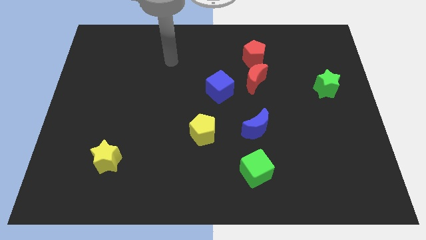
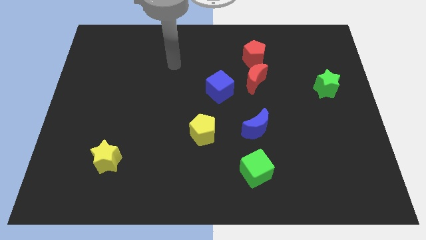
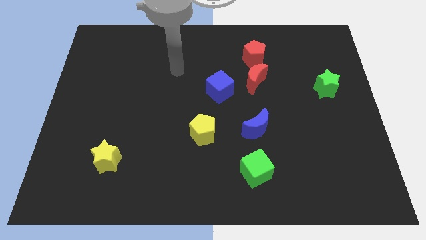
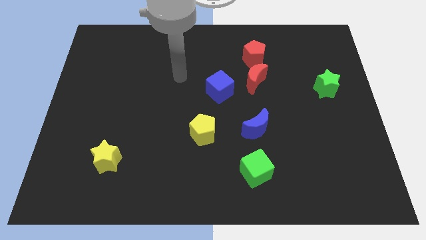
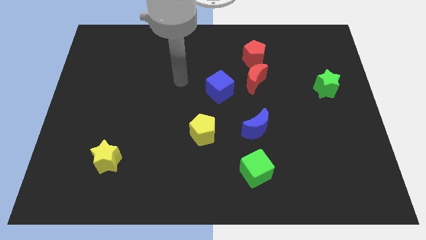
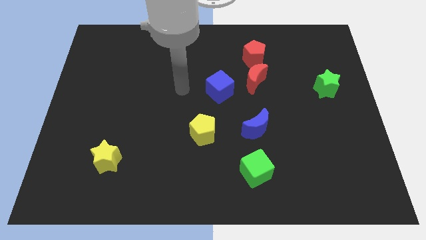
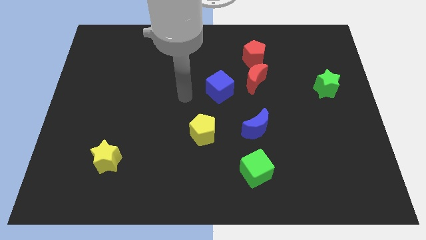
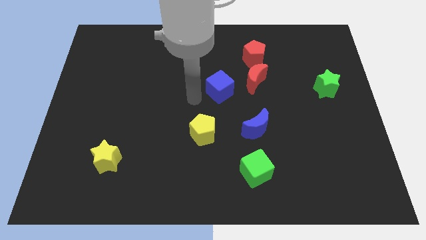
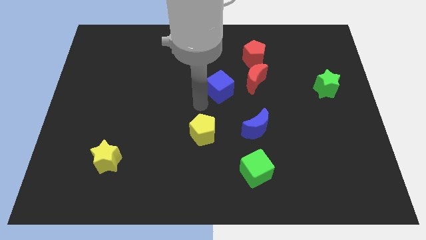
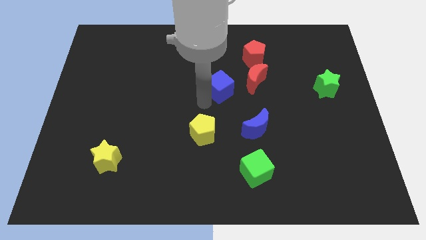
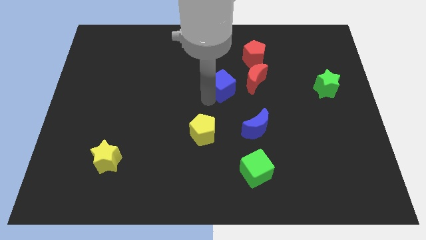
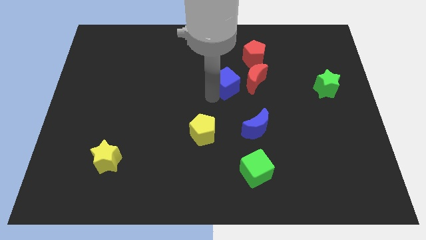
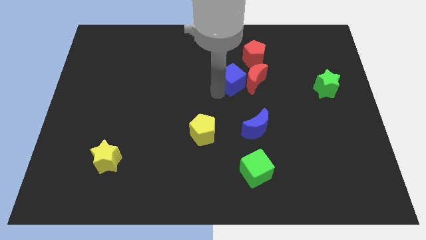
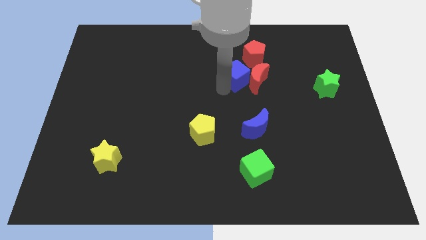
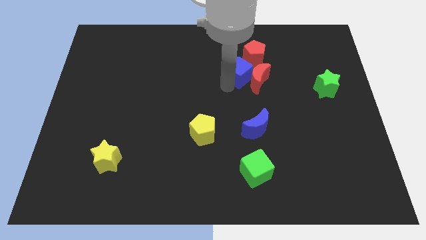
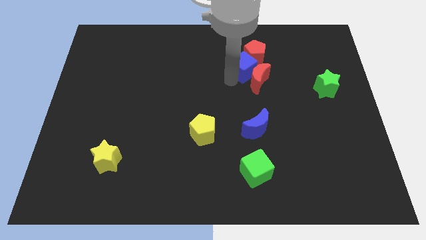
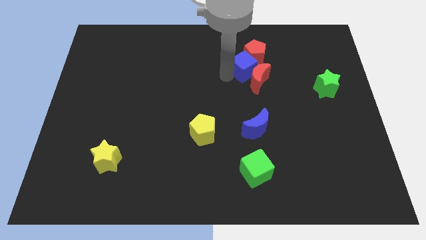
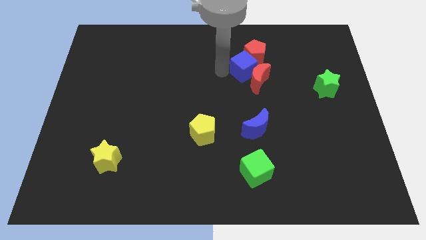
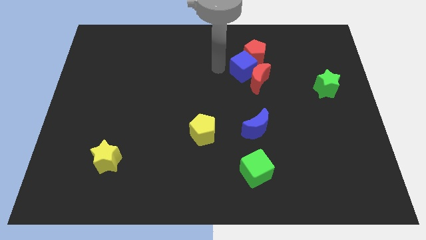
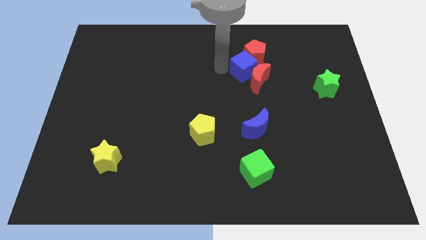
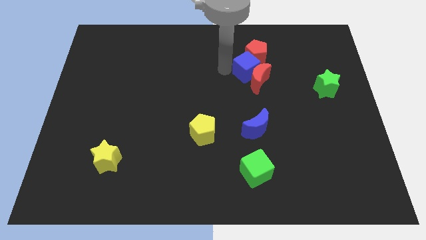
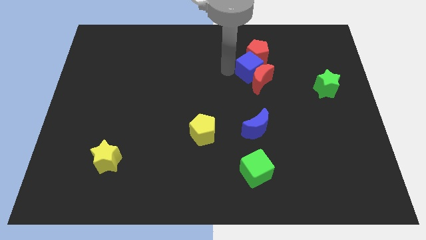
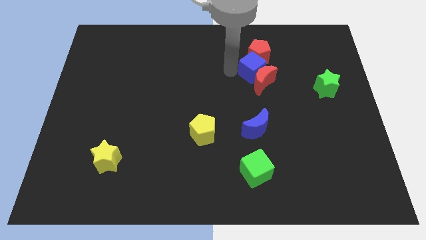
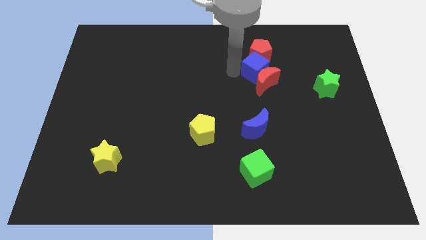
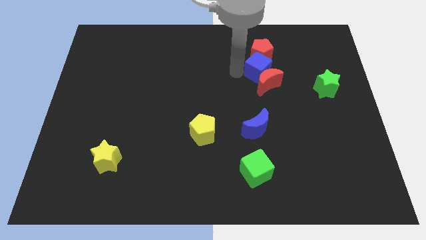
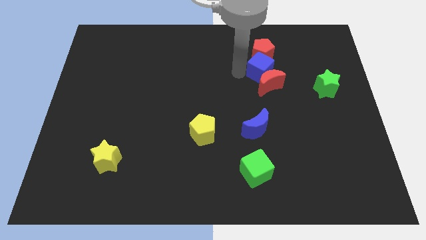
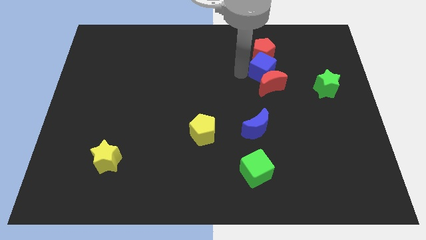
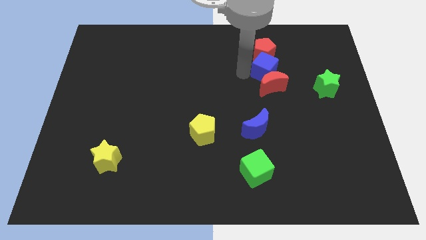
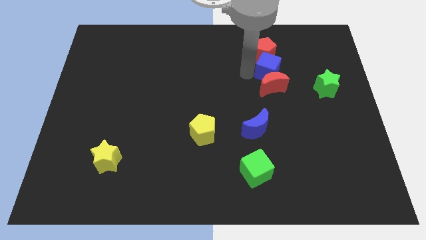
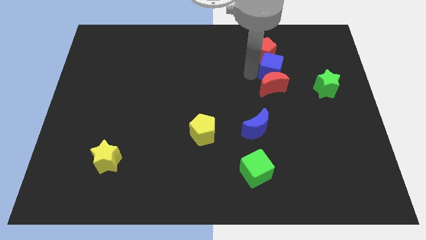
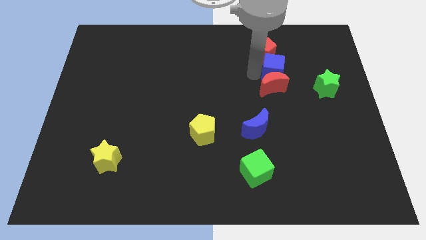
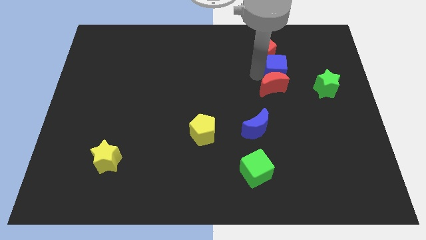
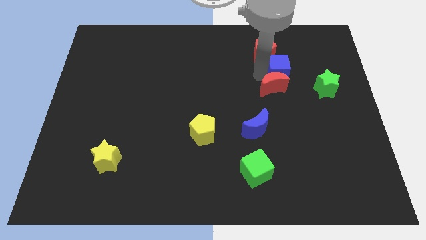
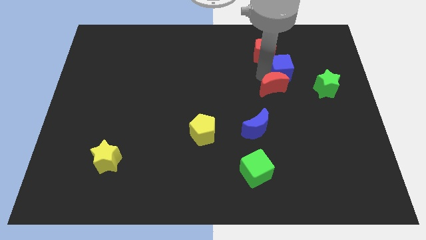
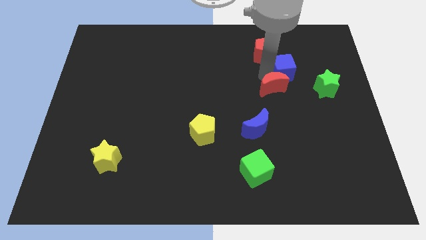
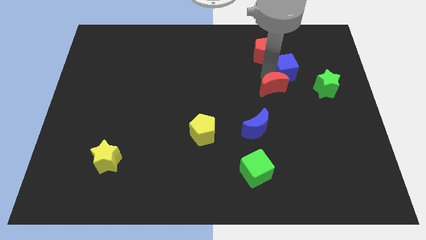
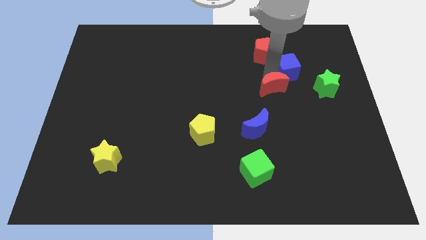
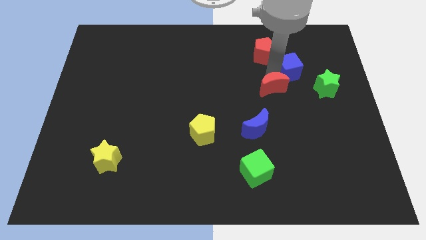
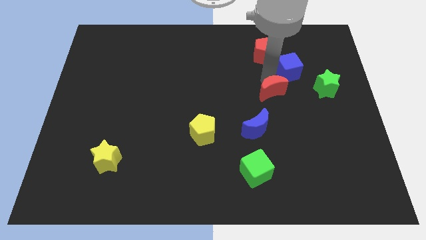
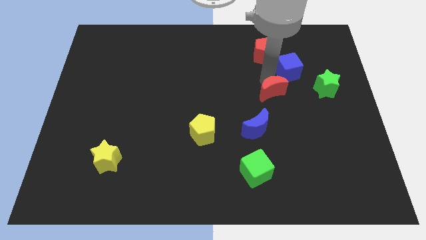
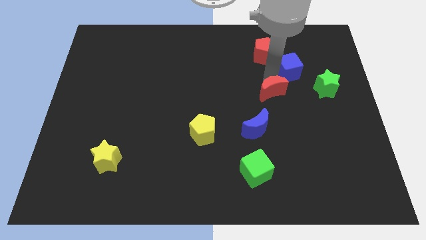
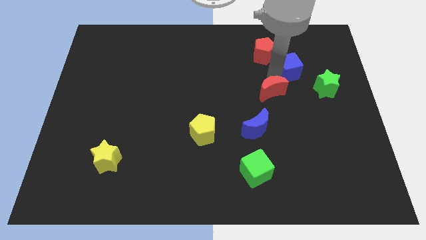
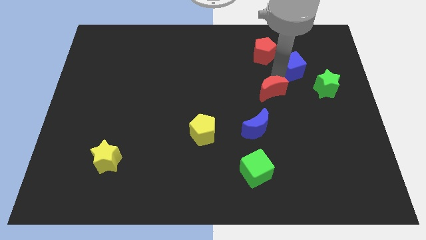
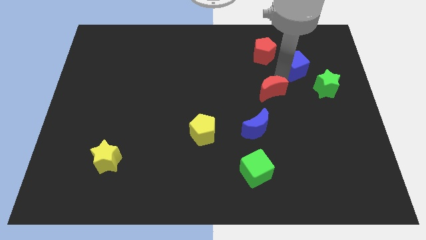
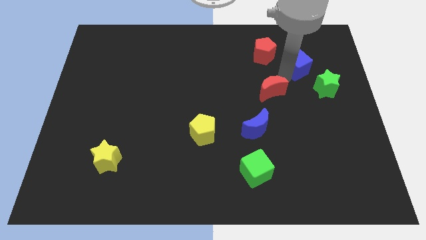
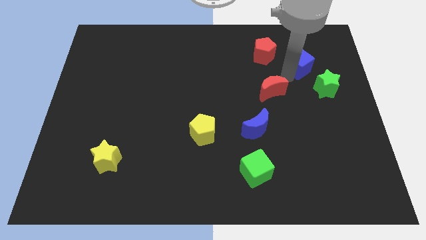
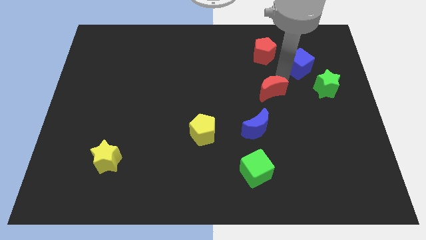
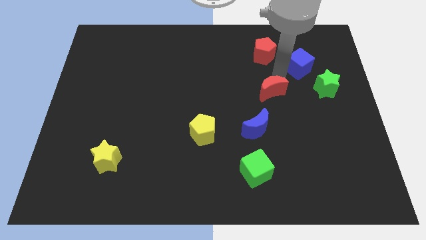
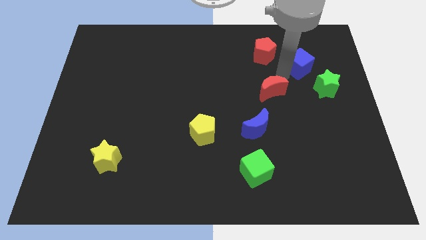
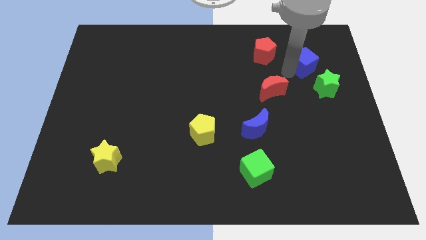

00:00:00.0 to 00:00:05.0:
move the blue cube above the green star

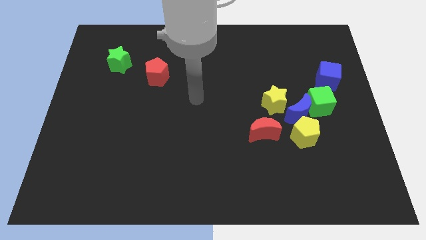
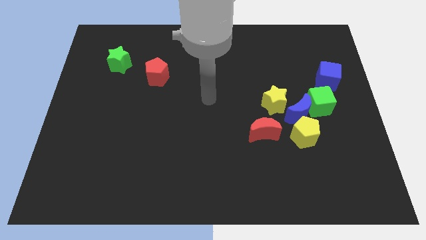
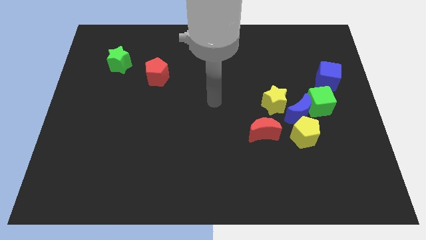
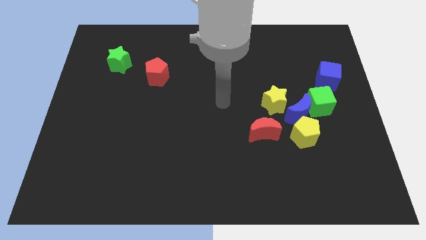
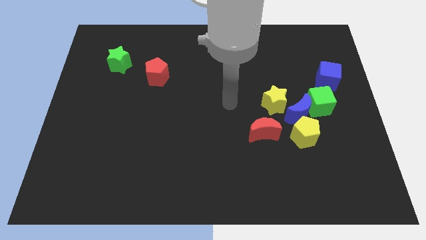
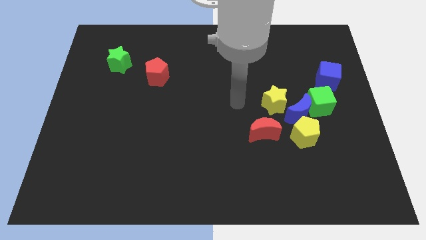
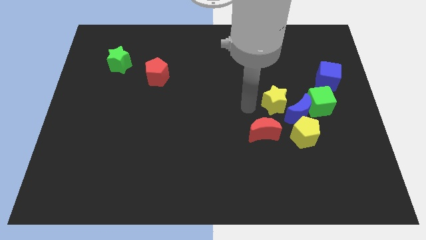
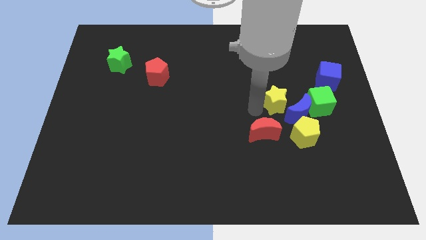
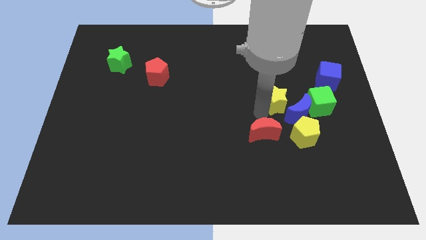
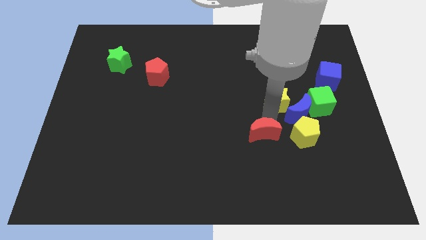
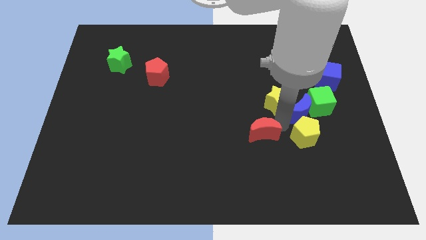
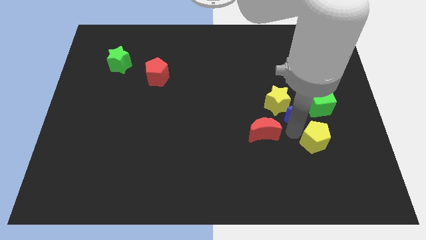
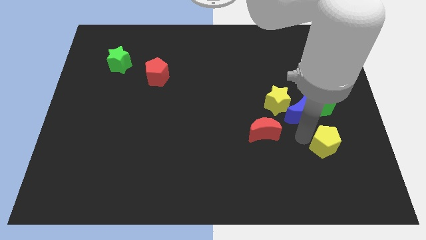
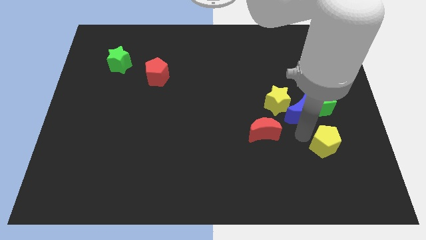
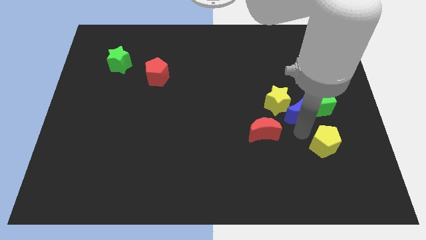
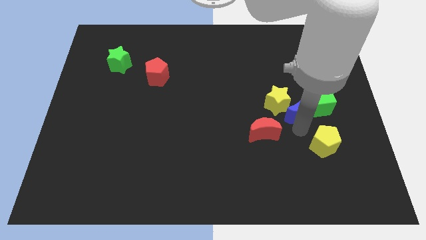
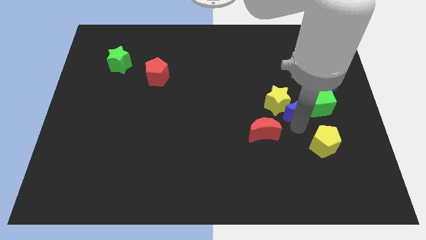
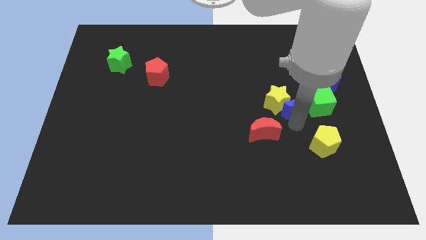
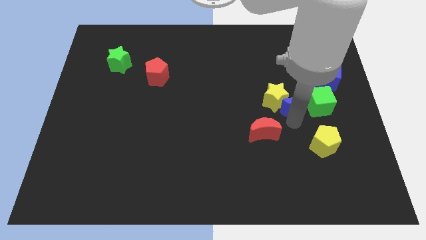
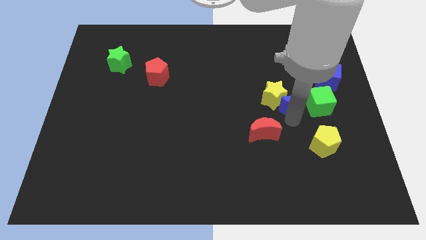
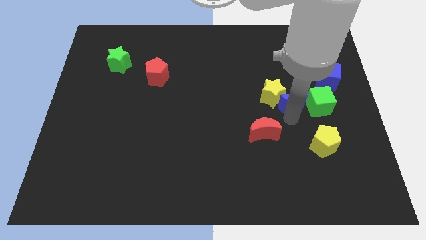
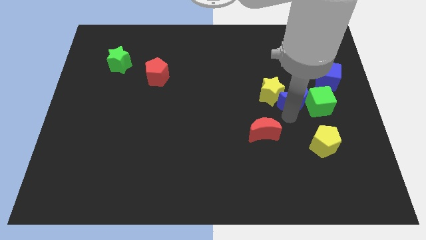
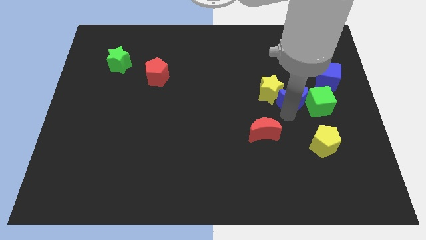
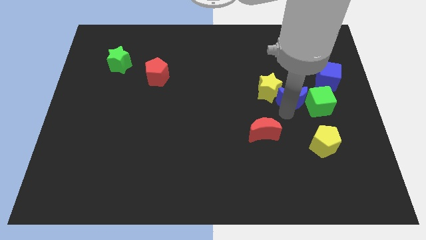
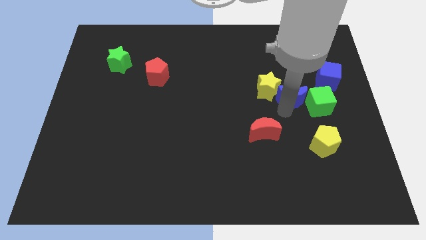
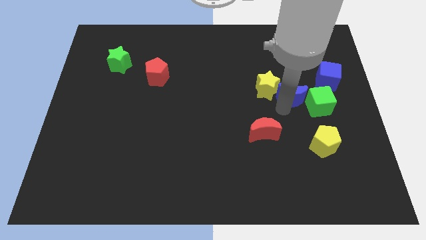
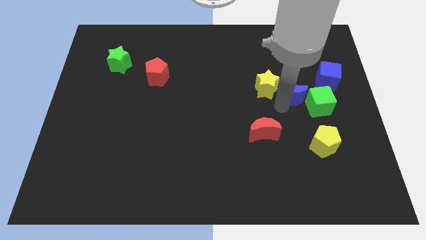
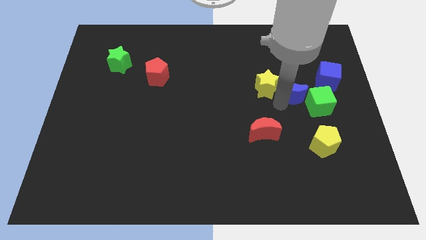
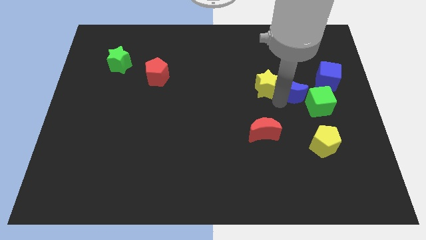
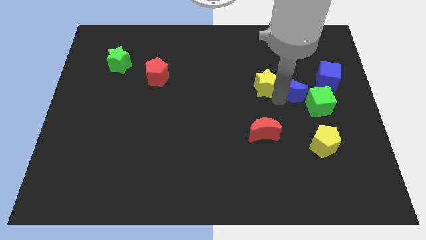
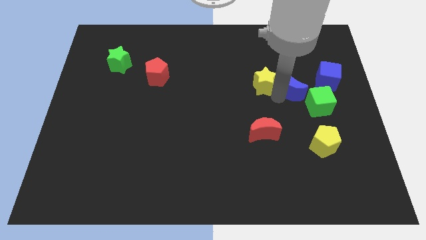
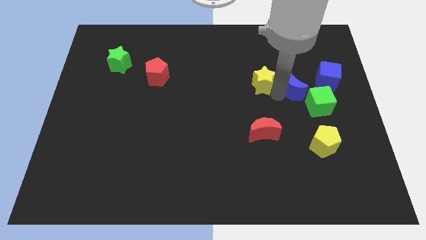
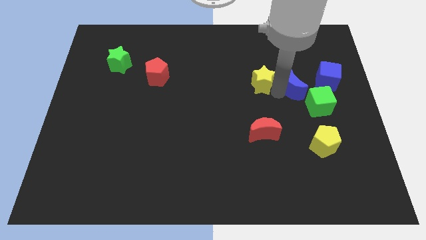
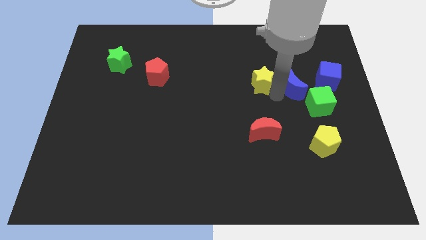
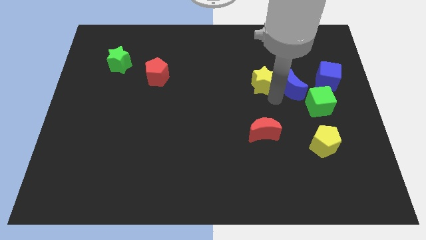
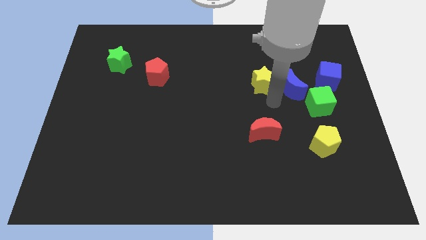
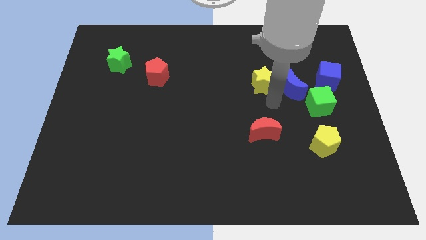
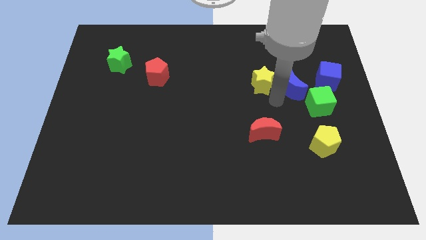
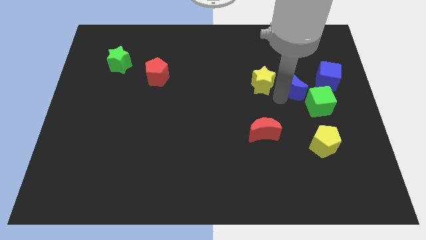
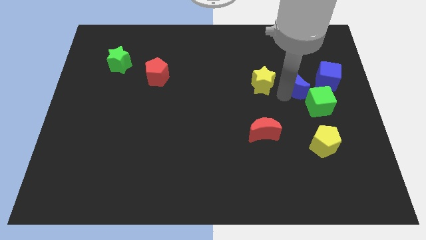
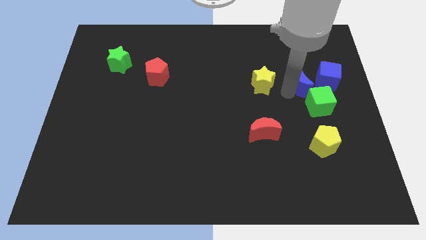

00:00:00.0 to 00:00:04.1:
slide the blue moon to the top of the green cube
